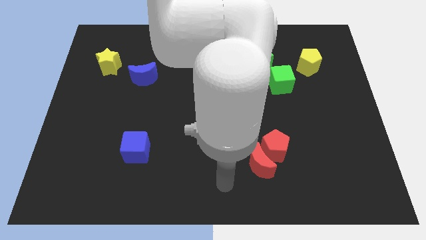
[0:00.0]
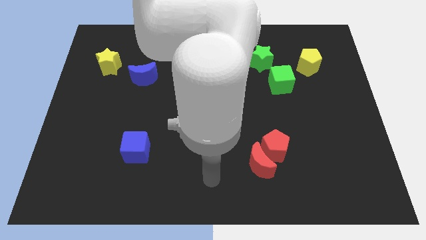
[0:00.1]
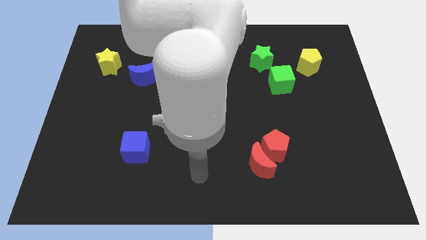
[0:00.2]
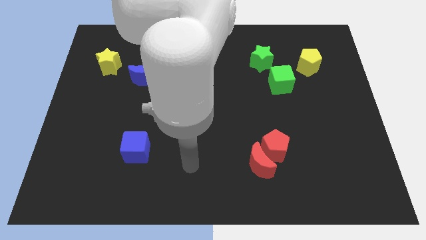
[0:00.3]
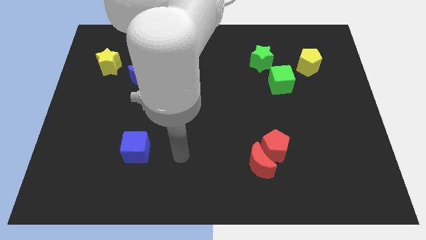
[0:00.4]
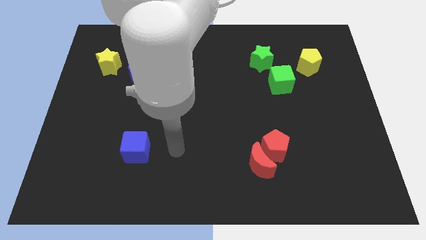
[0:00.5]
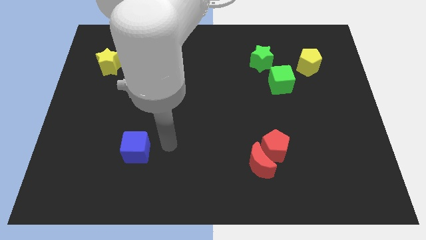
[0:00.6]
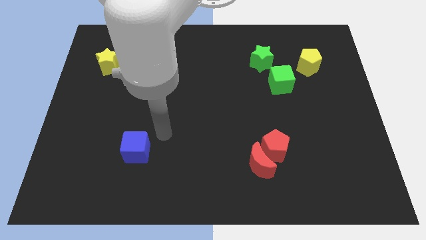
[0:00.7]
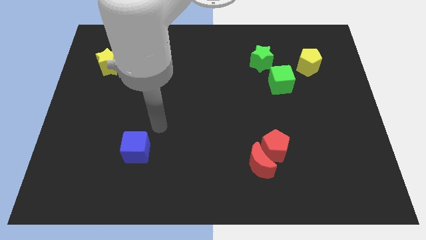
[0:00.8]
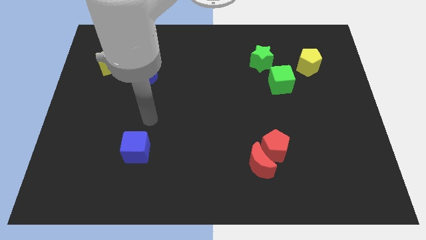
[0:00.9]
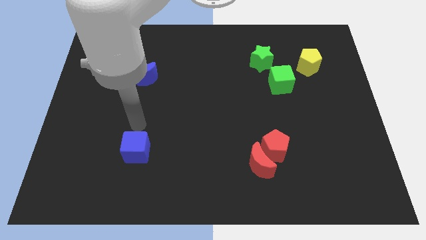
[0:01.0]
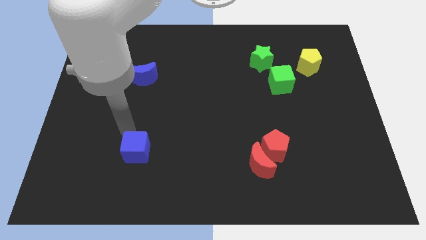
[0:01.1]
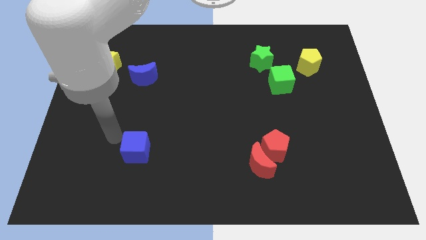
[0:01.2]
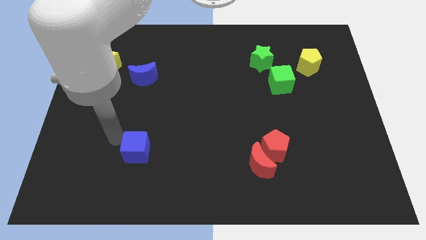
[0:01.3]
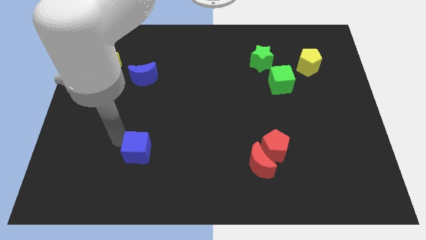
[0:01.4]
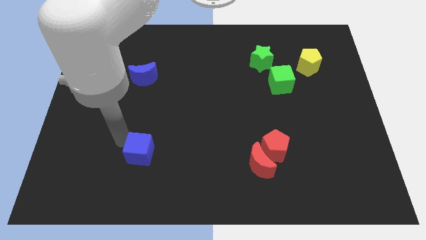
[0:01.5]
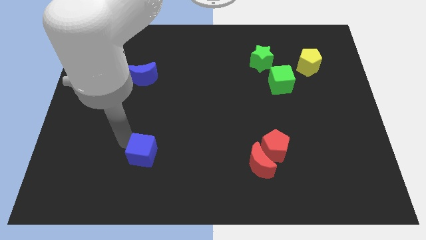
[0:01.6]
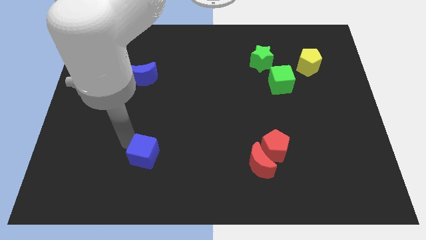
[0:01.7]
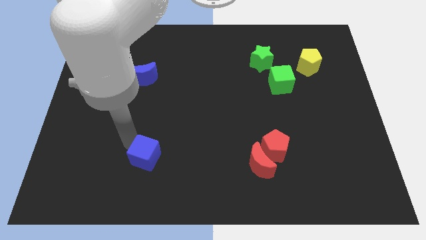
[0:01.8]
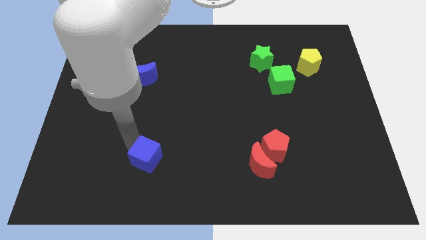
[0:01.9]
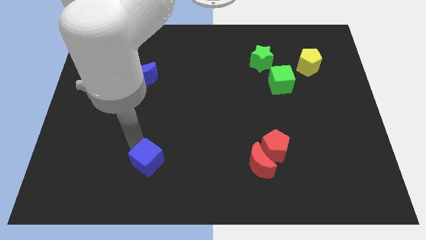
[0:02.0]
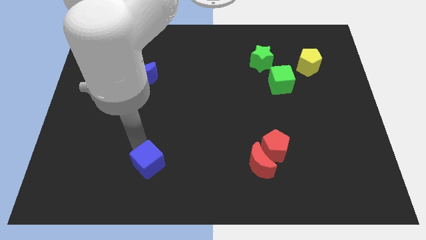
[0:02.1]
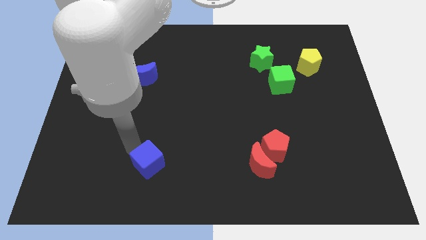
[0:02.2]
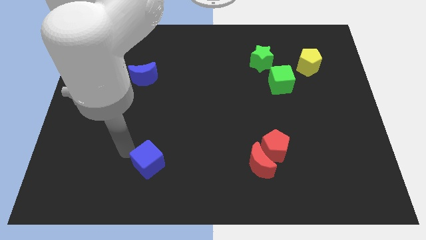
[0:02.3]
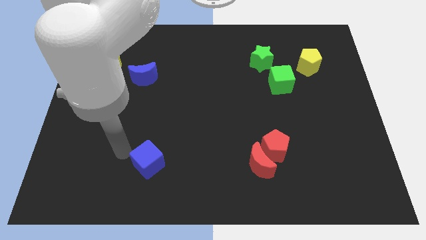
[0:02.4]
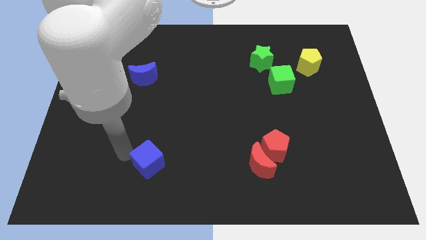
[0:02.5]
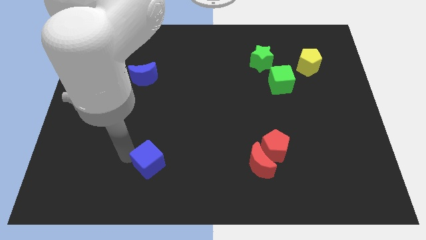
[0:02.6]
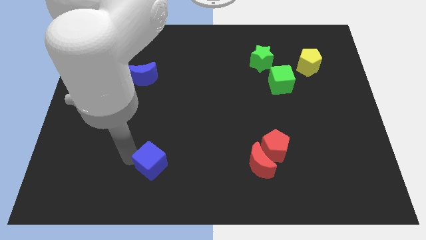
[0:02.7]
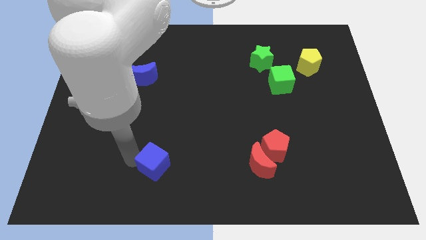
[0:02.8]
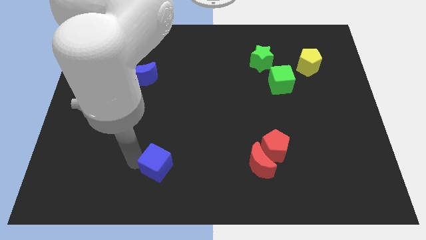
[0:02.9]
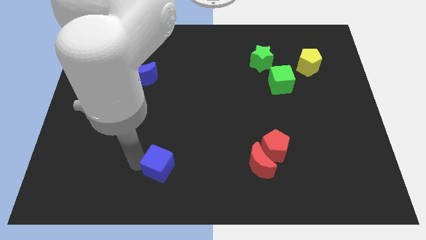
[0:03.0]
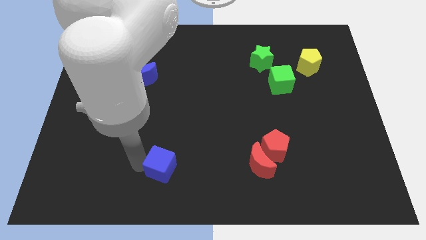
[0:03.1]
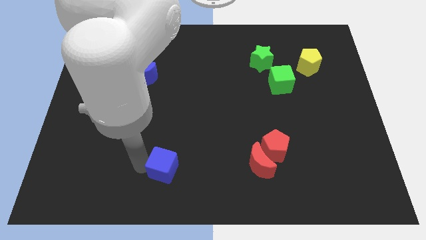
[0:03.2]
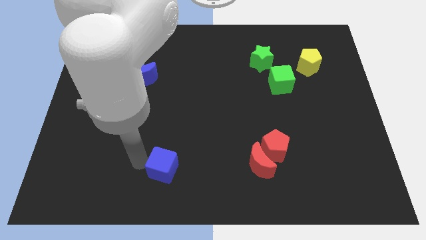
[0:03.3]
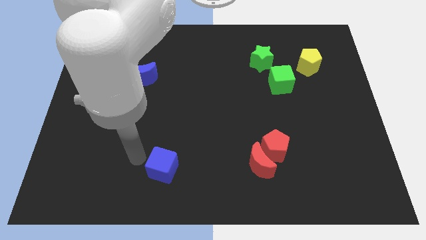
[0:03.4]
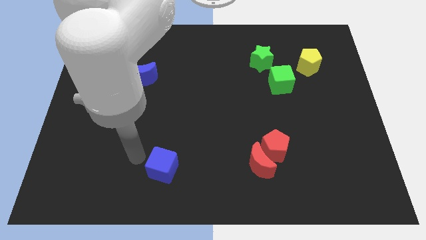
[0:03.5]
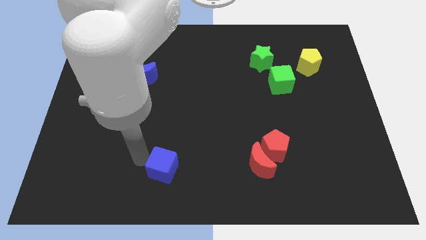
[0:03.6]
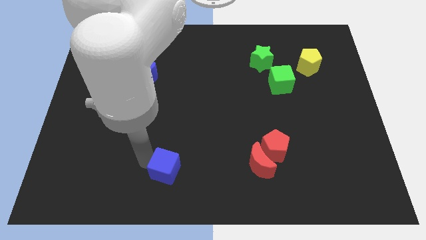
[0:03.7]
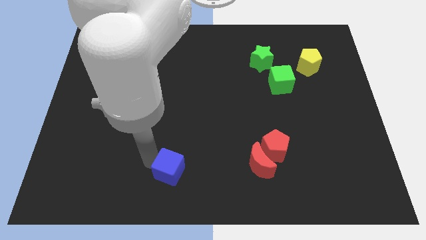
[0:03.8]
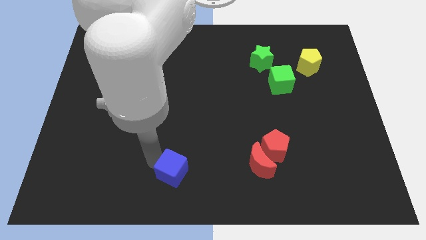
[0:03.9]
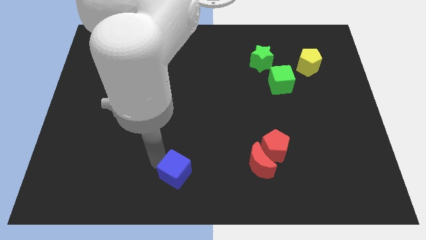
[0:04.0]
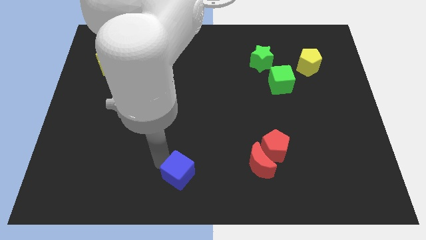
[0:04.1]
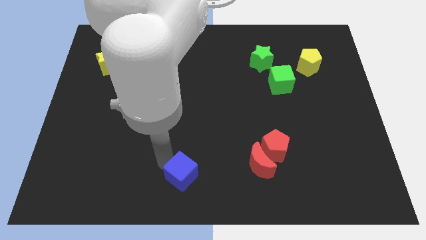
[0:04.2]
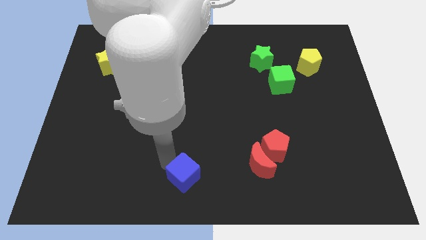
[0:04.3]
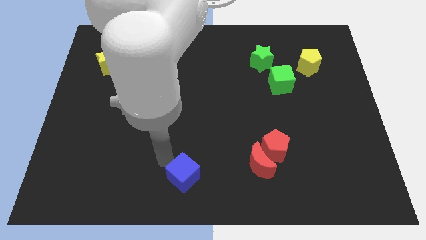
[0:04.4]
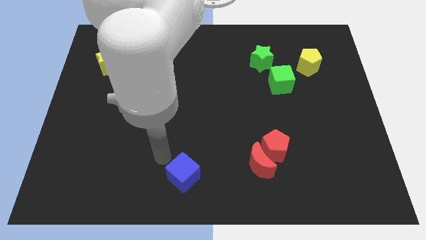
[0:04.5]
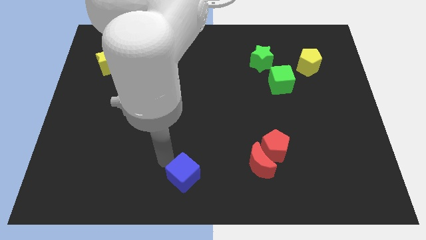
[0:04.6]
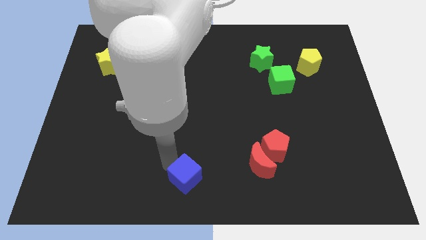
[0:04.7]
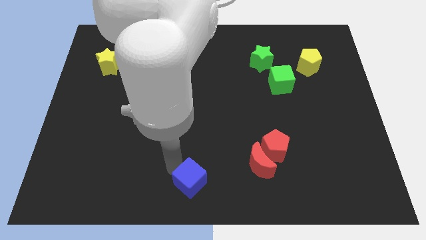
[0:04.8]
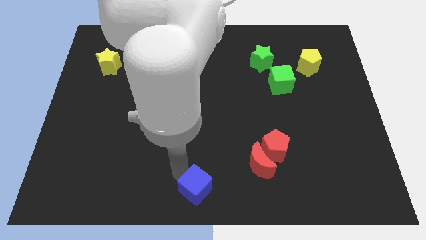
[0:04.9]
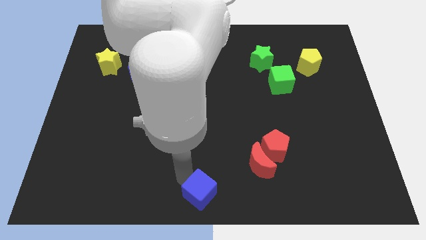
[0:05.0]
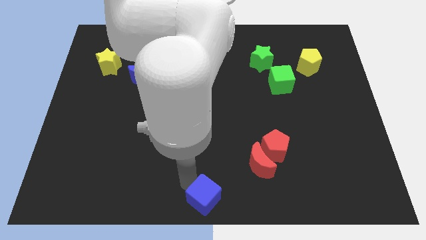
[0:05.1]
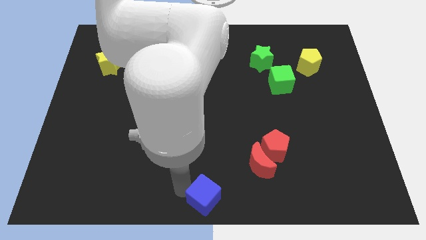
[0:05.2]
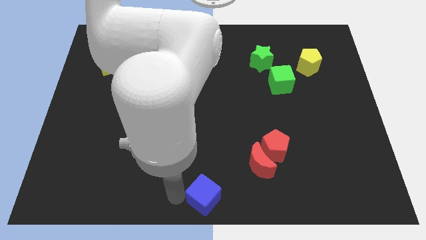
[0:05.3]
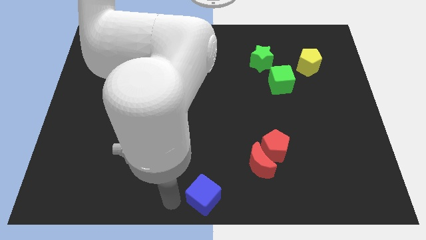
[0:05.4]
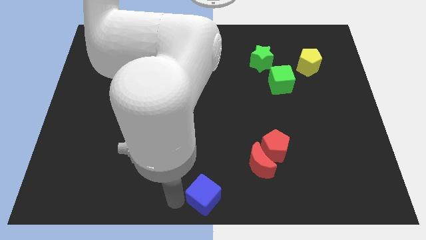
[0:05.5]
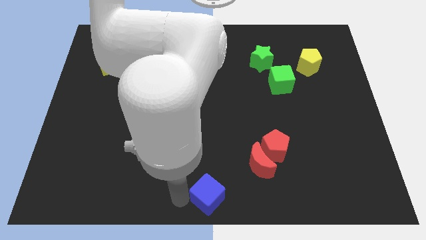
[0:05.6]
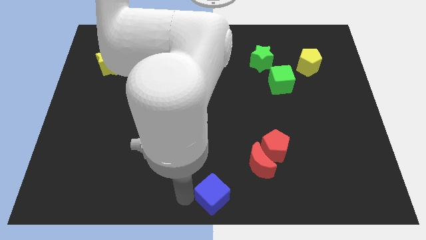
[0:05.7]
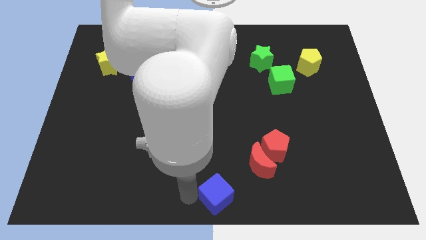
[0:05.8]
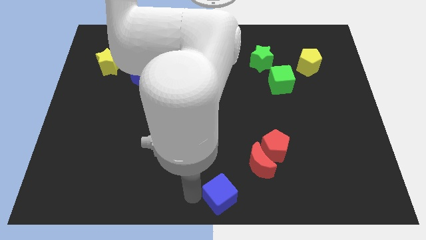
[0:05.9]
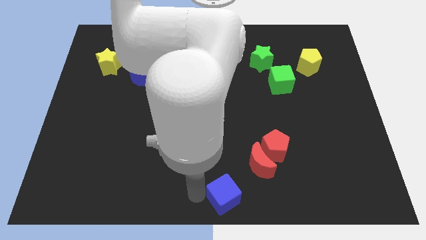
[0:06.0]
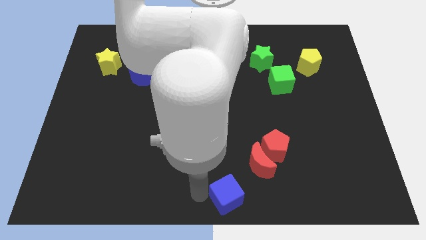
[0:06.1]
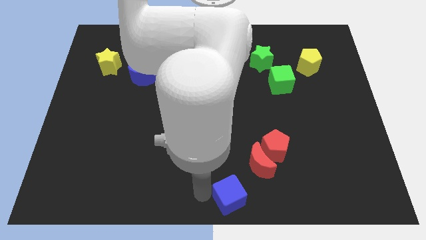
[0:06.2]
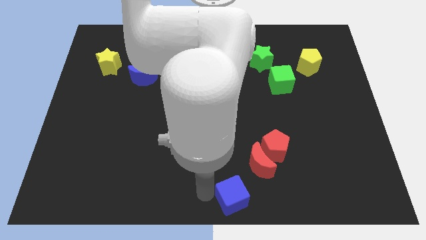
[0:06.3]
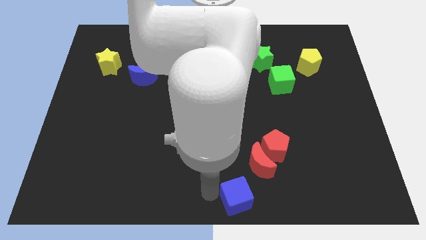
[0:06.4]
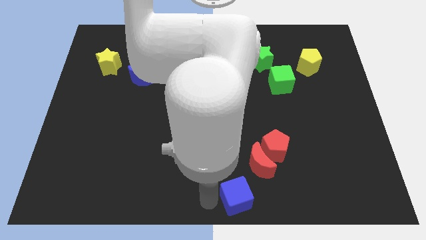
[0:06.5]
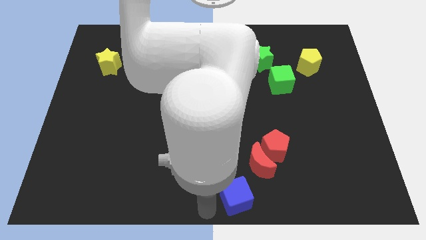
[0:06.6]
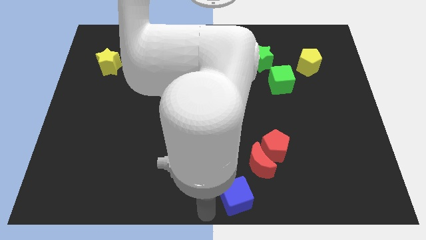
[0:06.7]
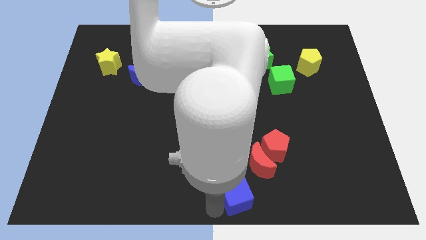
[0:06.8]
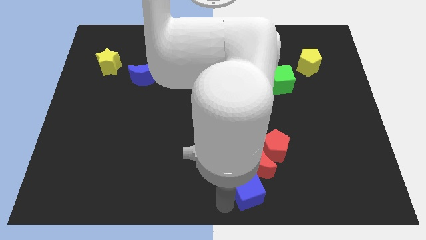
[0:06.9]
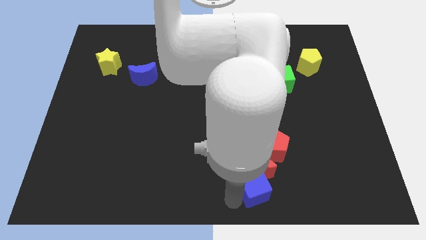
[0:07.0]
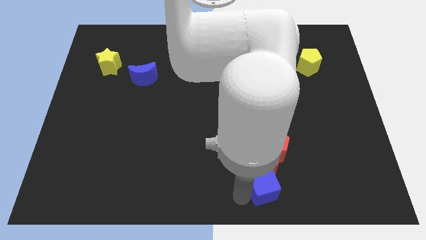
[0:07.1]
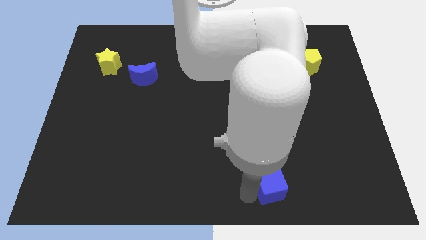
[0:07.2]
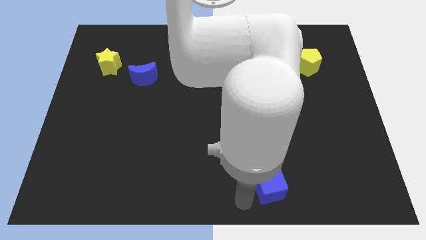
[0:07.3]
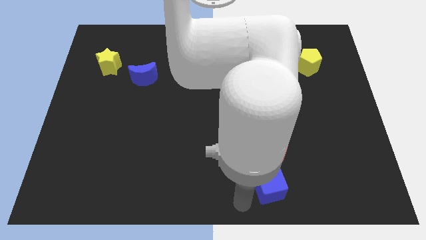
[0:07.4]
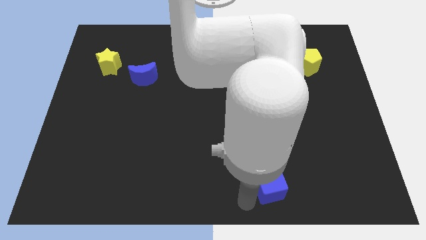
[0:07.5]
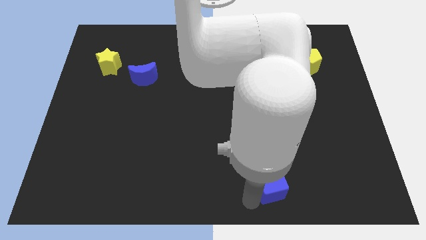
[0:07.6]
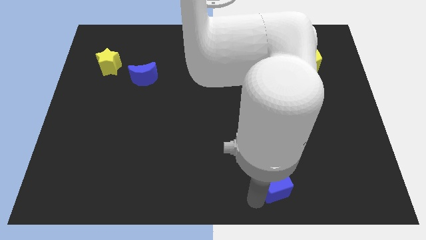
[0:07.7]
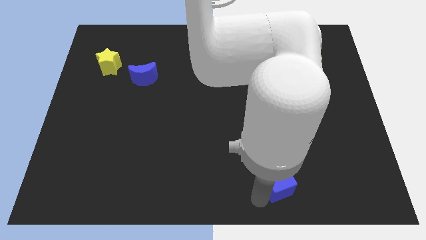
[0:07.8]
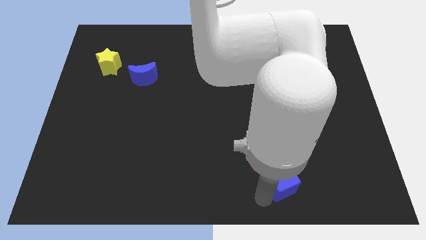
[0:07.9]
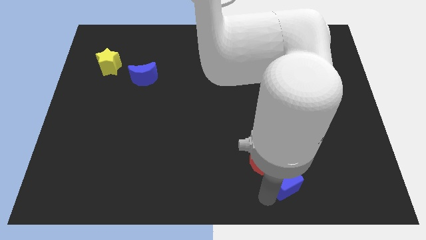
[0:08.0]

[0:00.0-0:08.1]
slide the blue cube to the bottom right of the red pentagon
